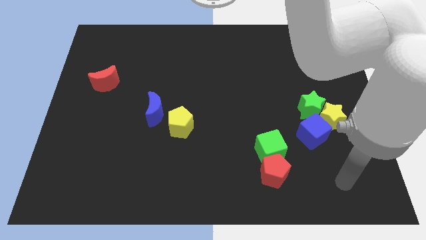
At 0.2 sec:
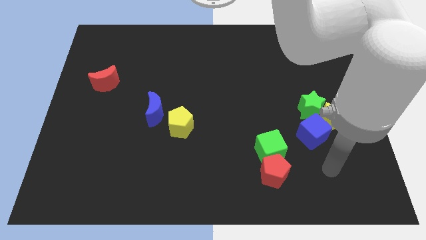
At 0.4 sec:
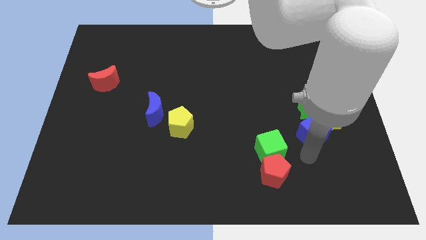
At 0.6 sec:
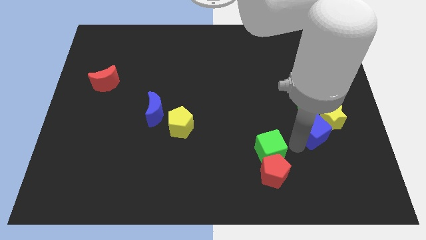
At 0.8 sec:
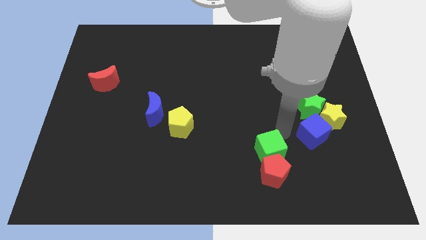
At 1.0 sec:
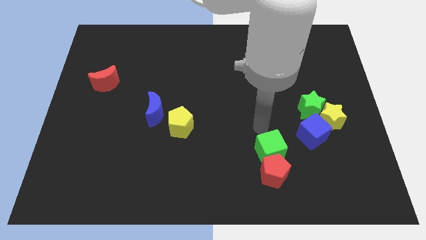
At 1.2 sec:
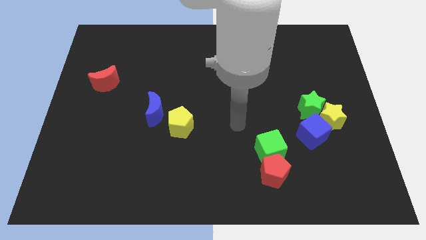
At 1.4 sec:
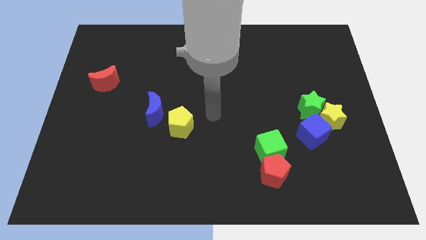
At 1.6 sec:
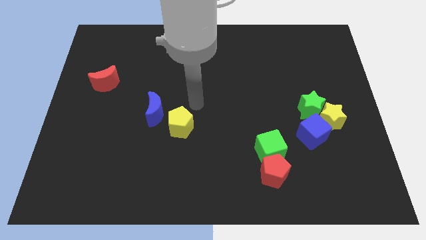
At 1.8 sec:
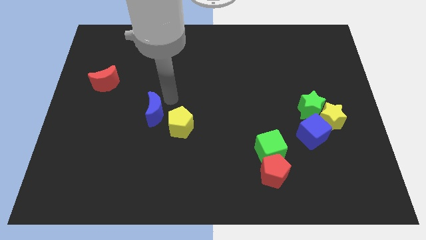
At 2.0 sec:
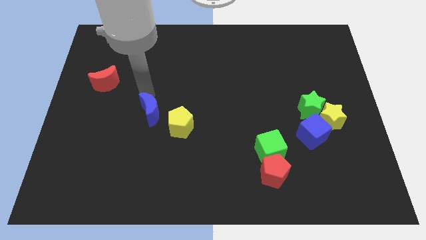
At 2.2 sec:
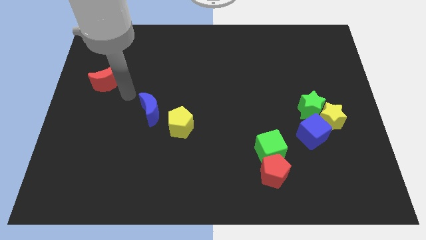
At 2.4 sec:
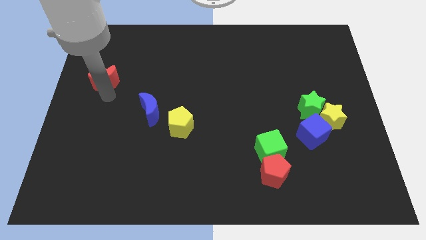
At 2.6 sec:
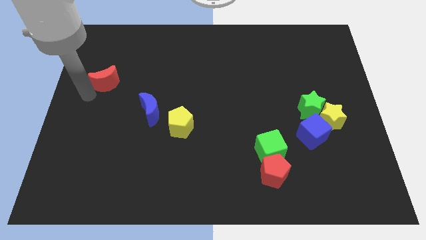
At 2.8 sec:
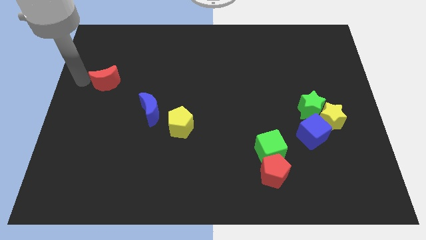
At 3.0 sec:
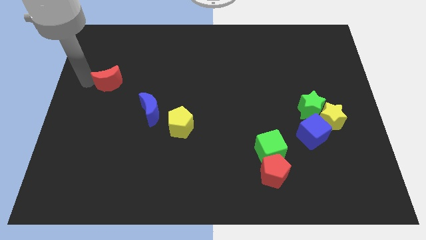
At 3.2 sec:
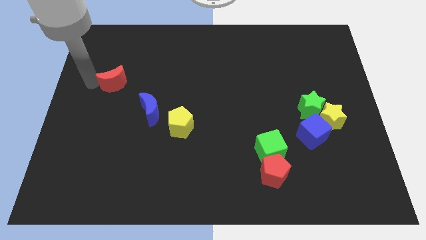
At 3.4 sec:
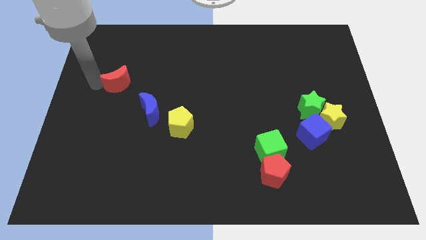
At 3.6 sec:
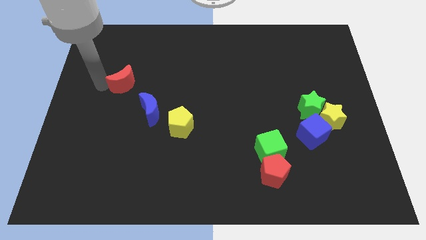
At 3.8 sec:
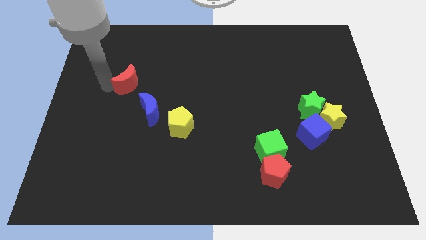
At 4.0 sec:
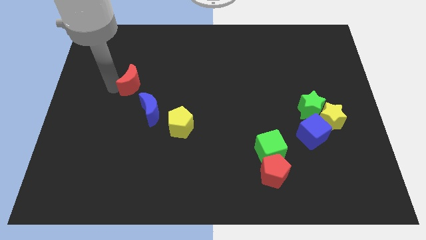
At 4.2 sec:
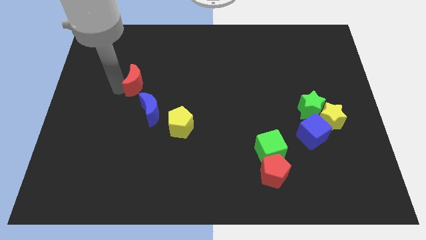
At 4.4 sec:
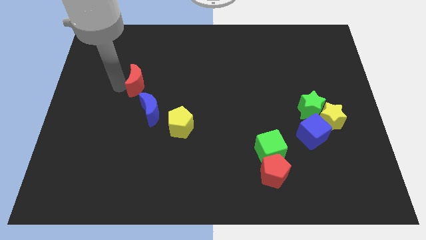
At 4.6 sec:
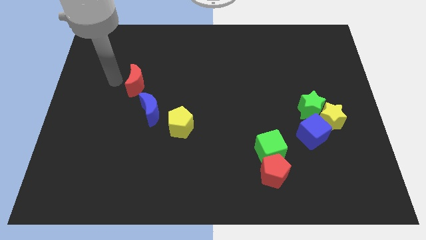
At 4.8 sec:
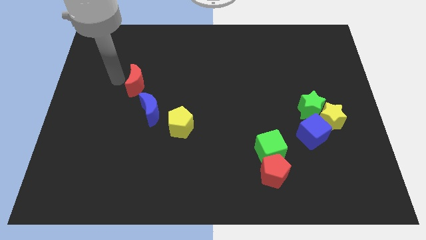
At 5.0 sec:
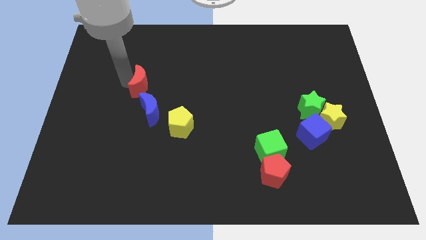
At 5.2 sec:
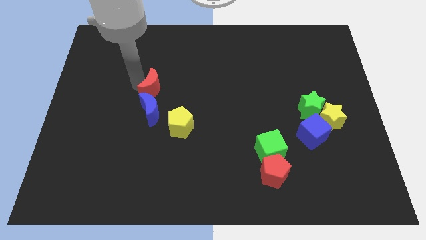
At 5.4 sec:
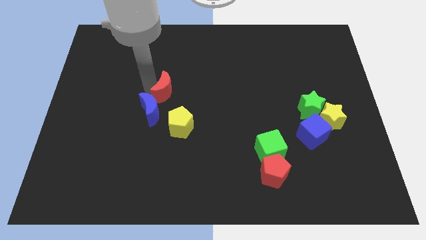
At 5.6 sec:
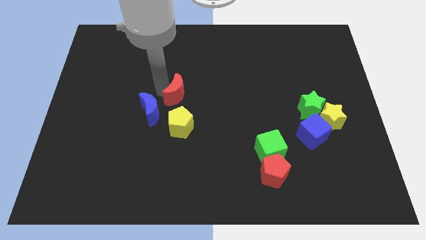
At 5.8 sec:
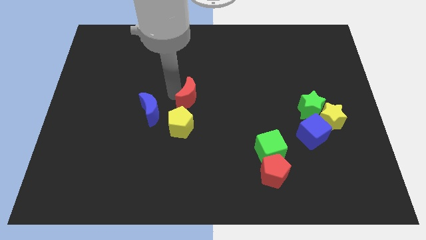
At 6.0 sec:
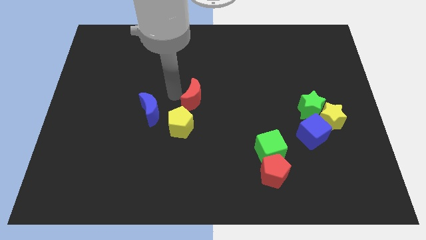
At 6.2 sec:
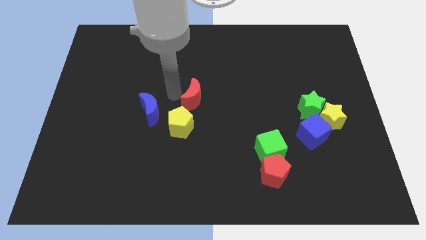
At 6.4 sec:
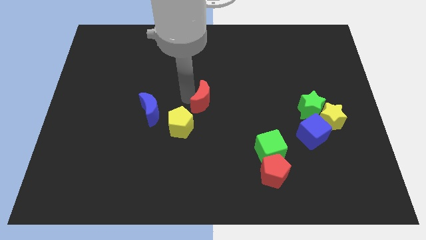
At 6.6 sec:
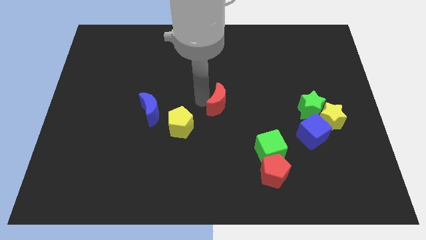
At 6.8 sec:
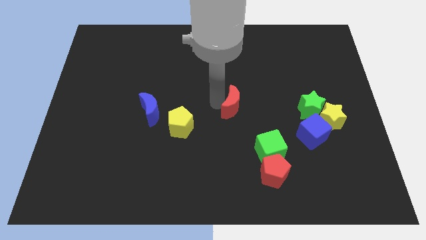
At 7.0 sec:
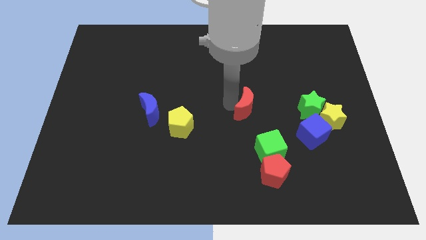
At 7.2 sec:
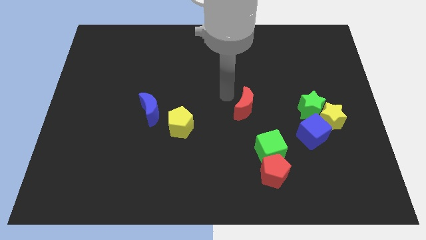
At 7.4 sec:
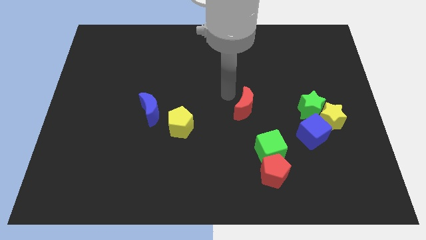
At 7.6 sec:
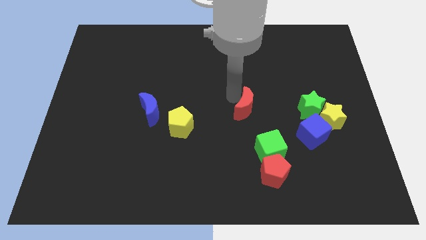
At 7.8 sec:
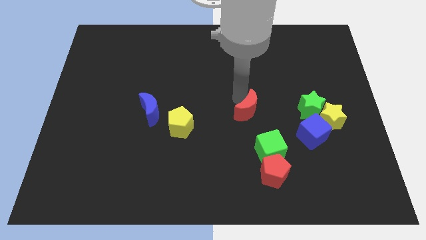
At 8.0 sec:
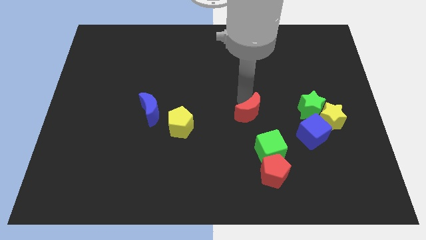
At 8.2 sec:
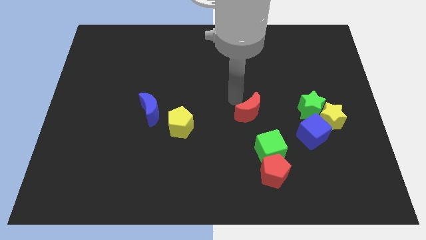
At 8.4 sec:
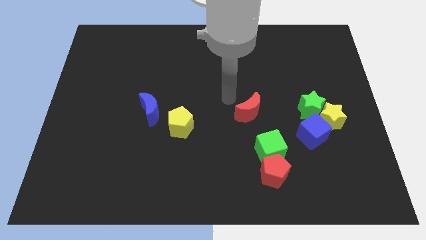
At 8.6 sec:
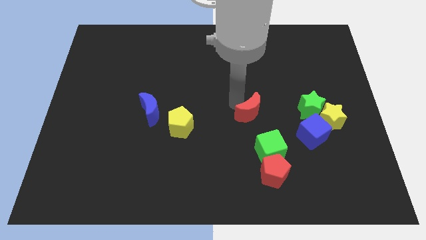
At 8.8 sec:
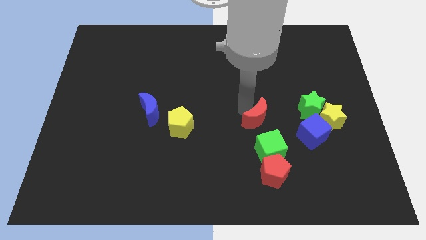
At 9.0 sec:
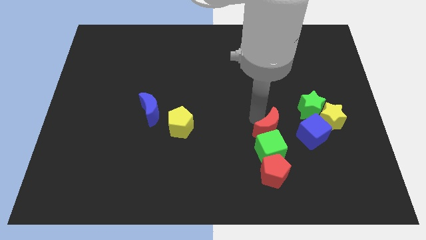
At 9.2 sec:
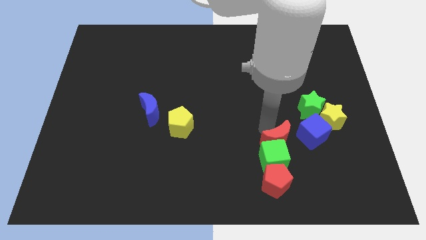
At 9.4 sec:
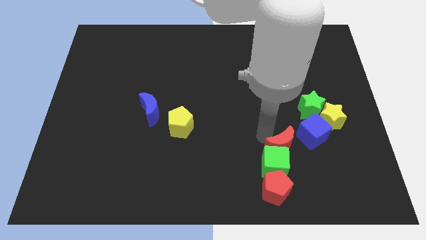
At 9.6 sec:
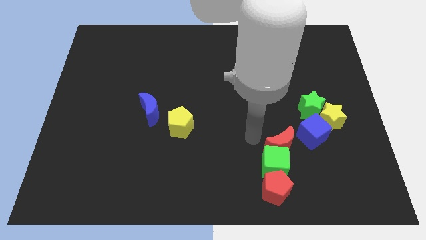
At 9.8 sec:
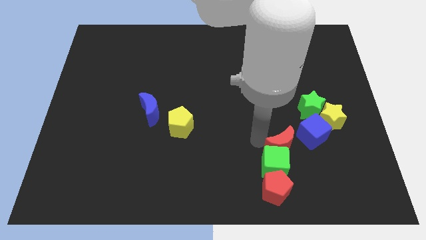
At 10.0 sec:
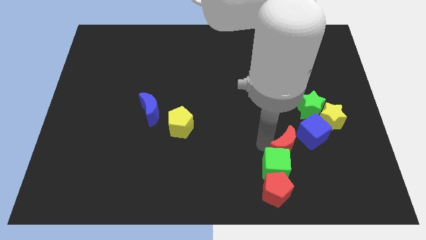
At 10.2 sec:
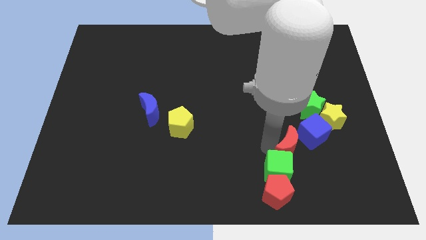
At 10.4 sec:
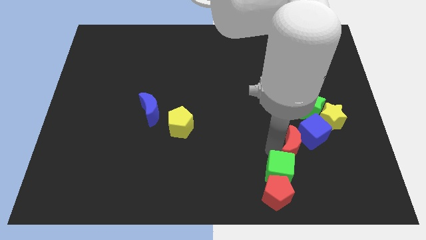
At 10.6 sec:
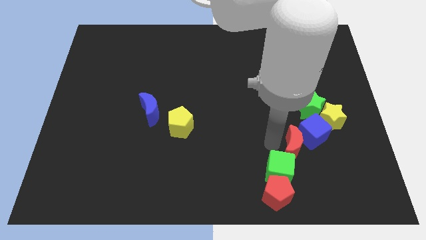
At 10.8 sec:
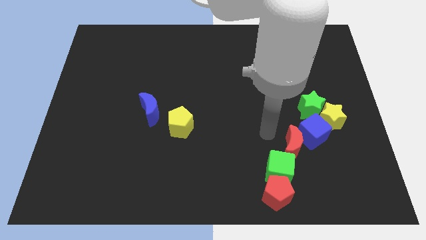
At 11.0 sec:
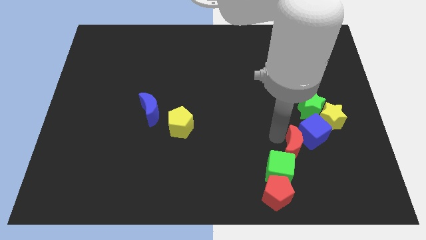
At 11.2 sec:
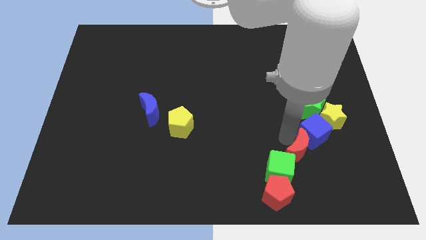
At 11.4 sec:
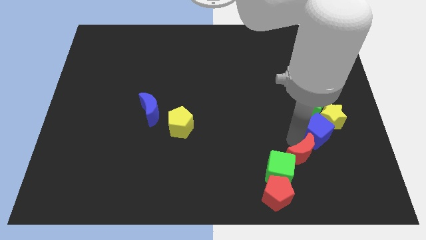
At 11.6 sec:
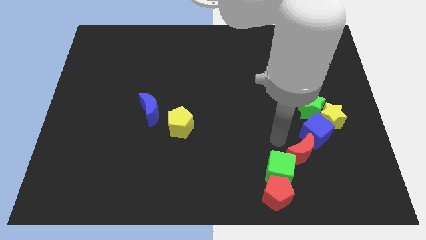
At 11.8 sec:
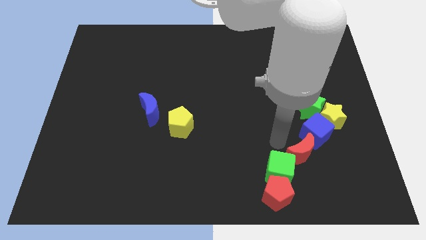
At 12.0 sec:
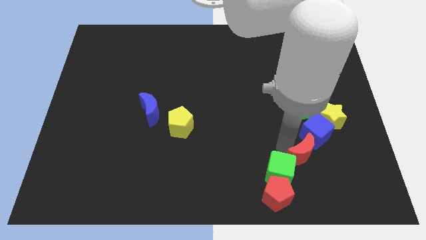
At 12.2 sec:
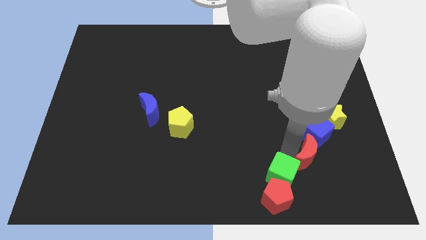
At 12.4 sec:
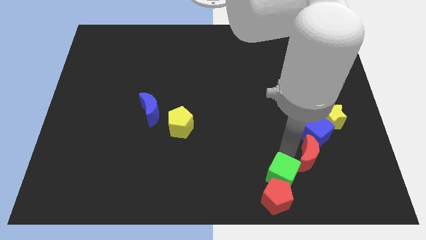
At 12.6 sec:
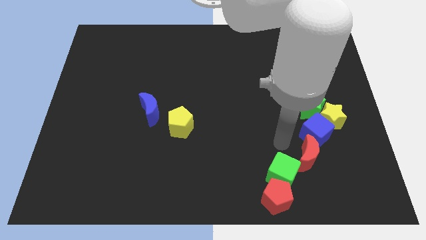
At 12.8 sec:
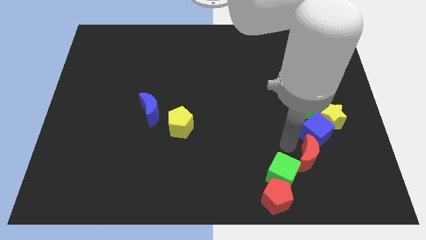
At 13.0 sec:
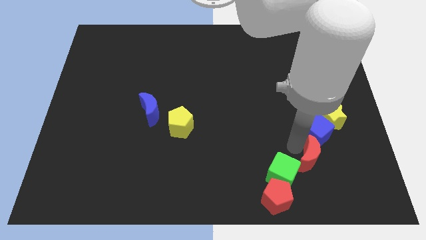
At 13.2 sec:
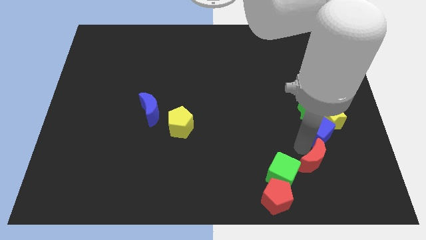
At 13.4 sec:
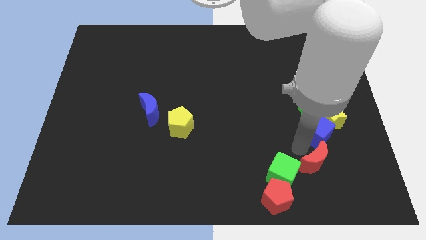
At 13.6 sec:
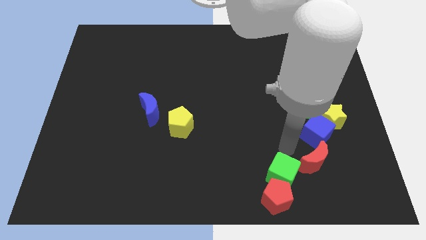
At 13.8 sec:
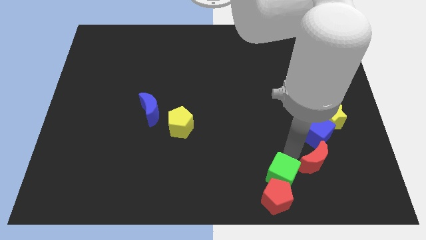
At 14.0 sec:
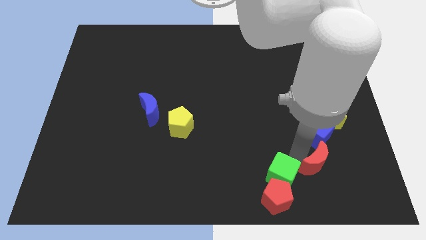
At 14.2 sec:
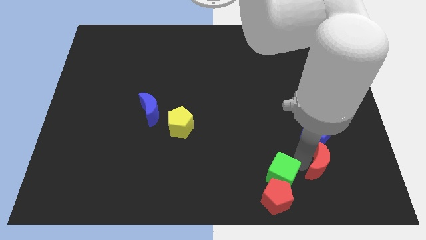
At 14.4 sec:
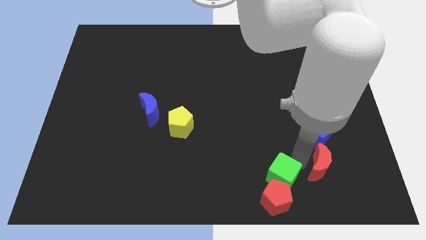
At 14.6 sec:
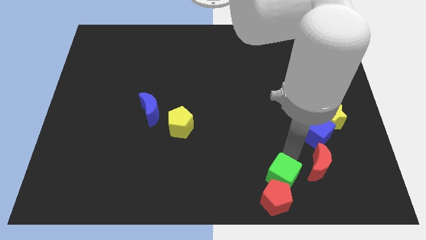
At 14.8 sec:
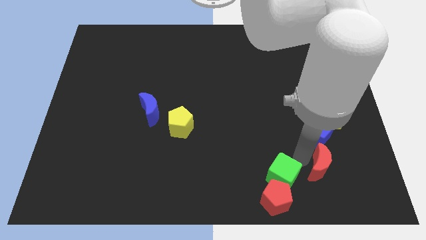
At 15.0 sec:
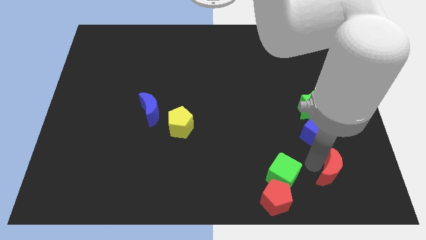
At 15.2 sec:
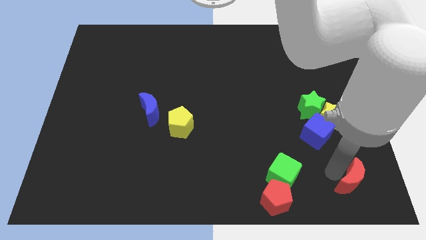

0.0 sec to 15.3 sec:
move the red moon to the lower right corner
